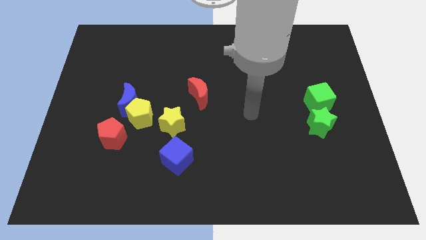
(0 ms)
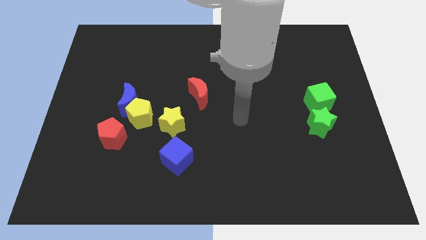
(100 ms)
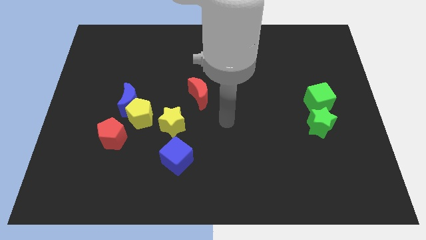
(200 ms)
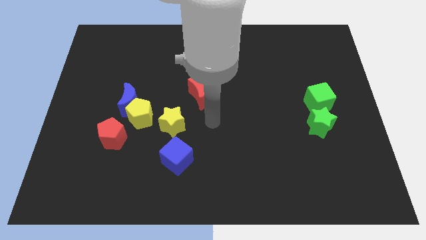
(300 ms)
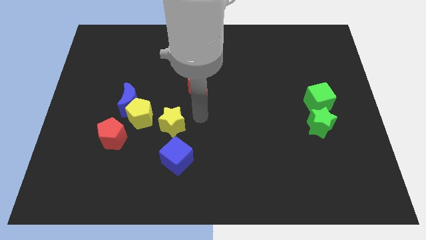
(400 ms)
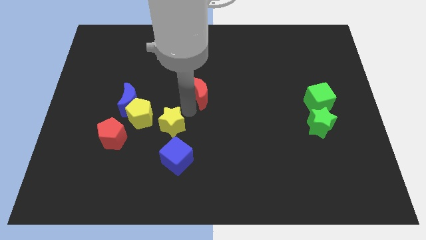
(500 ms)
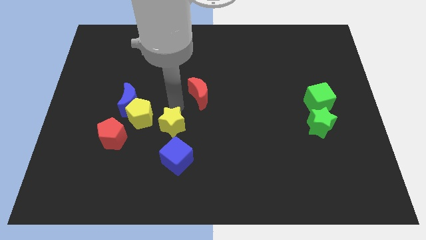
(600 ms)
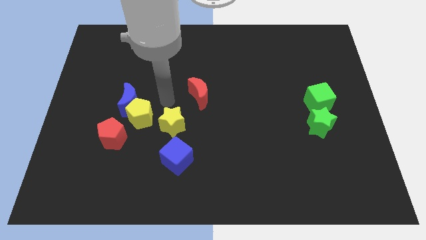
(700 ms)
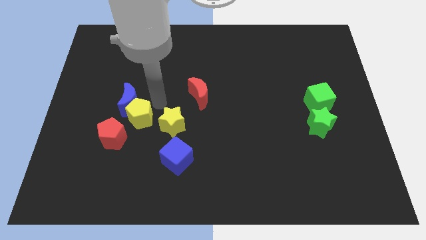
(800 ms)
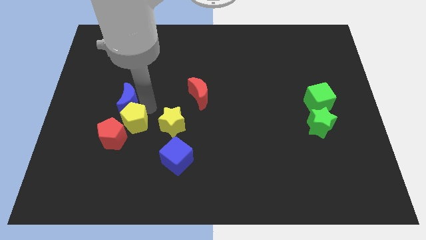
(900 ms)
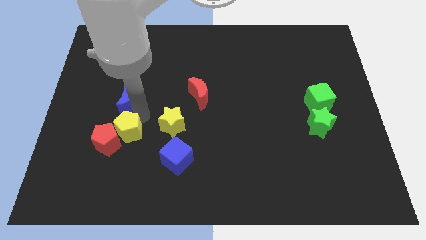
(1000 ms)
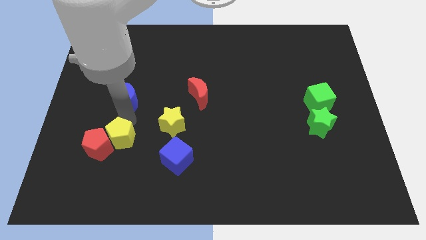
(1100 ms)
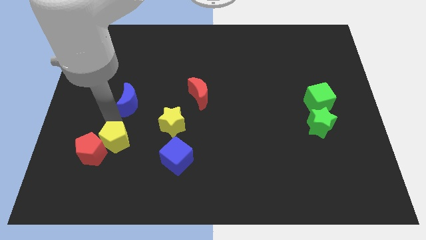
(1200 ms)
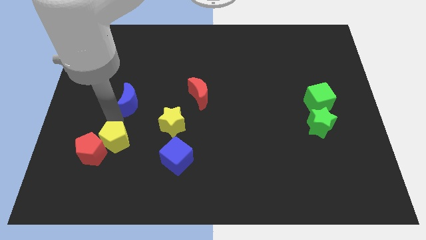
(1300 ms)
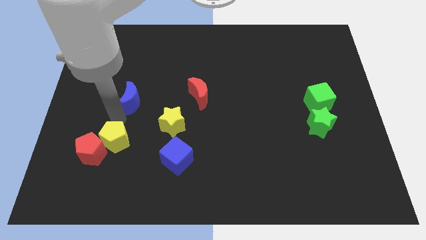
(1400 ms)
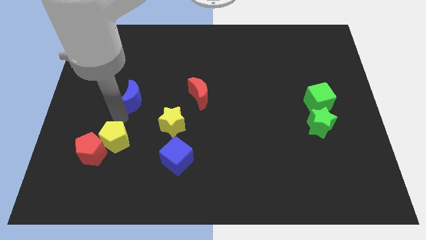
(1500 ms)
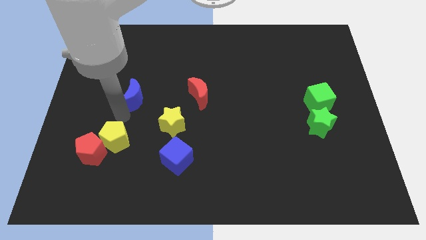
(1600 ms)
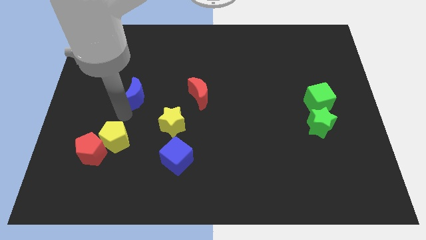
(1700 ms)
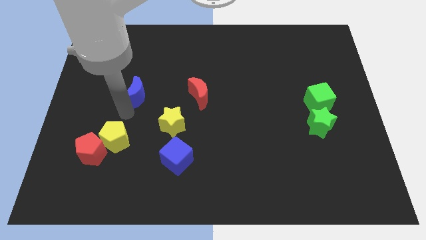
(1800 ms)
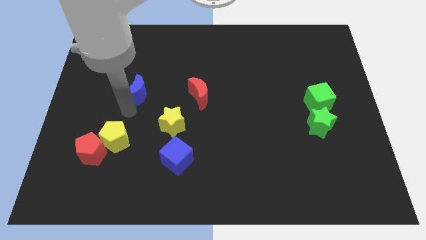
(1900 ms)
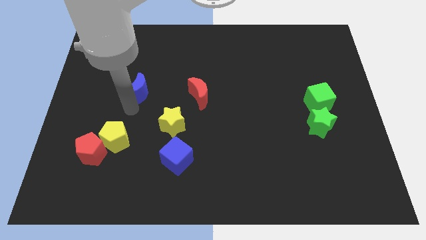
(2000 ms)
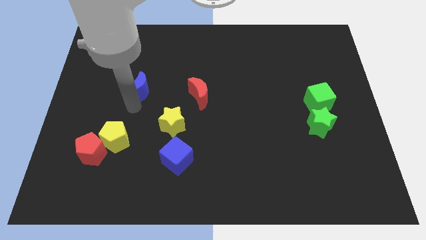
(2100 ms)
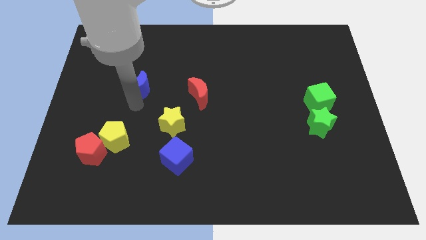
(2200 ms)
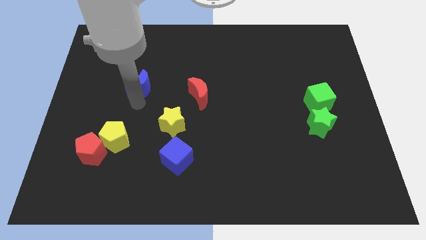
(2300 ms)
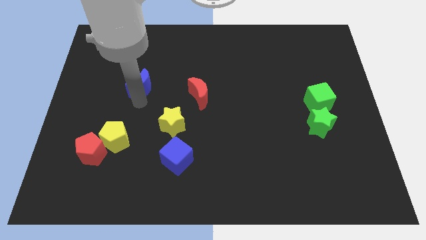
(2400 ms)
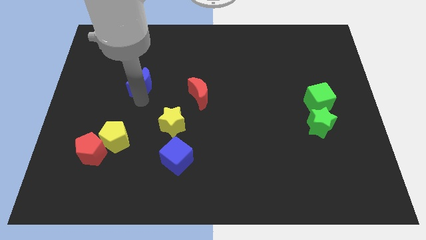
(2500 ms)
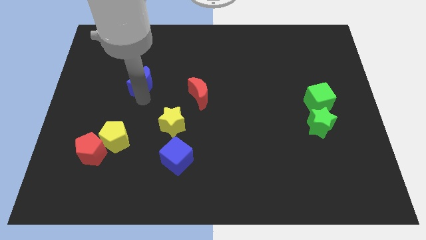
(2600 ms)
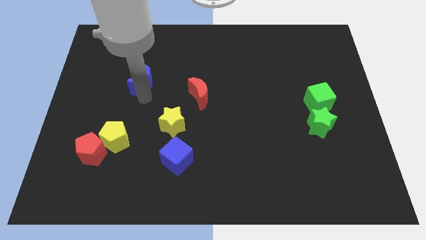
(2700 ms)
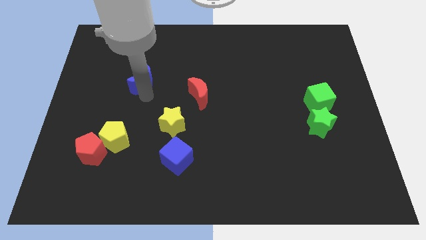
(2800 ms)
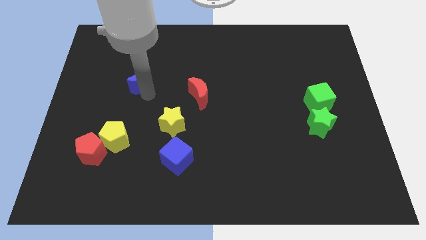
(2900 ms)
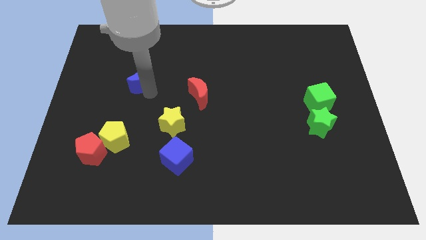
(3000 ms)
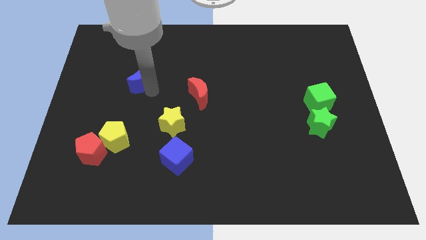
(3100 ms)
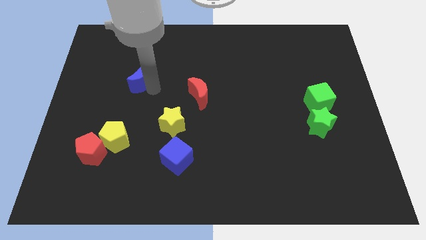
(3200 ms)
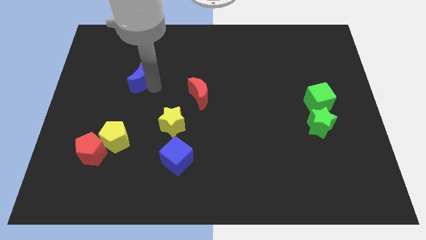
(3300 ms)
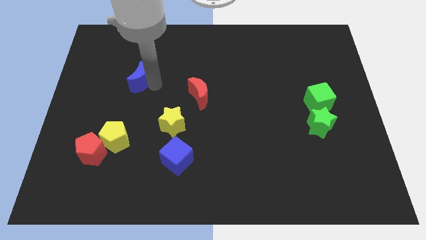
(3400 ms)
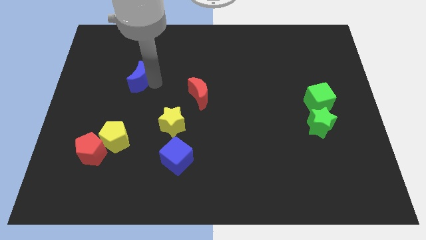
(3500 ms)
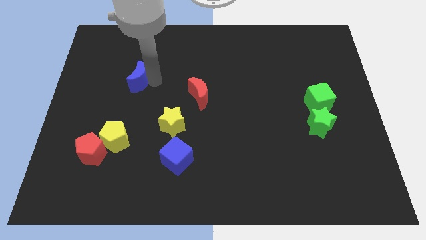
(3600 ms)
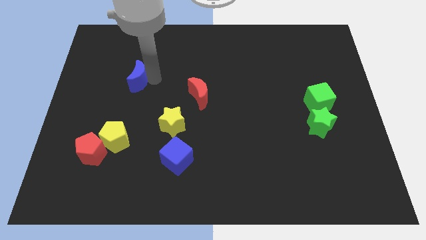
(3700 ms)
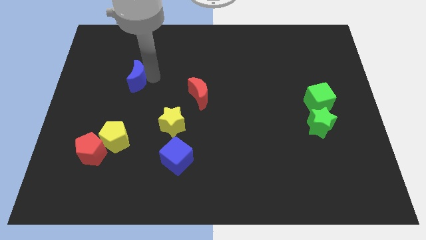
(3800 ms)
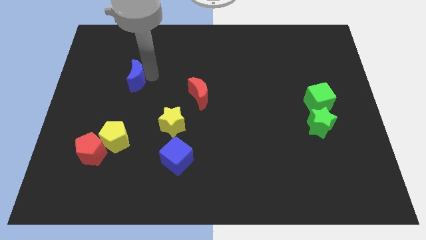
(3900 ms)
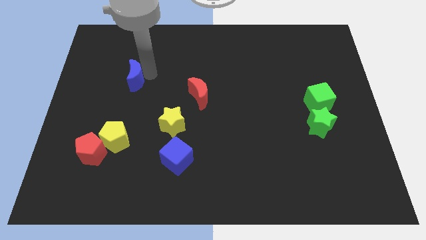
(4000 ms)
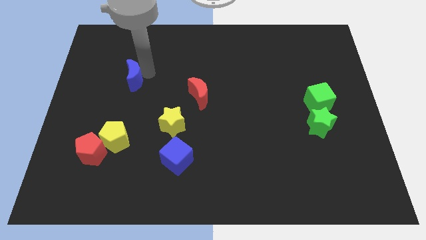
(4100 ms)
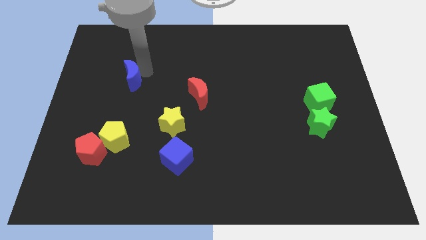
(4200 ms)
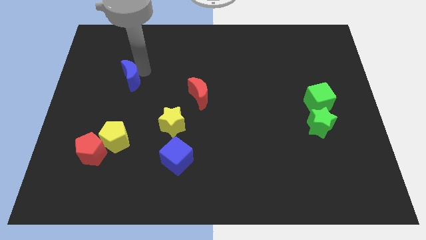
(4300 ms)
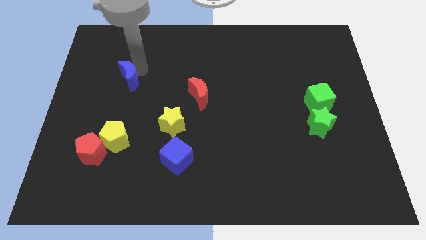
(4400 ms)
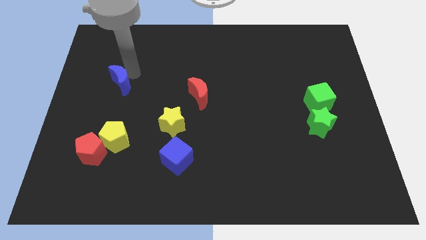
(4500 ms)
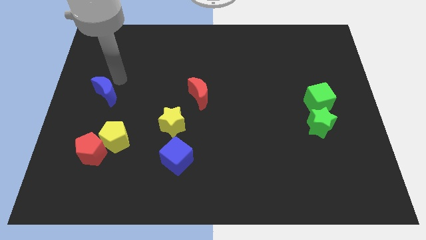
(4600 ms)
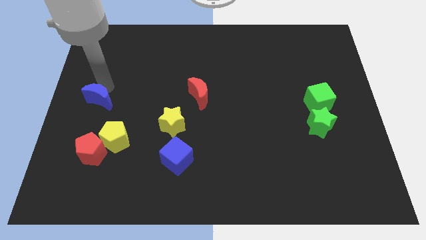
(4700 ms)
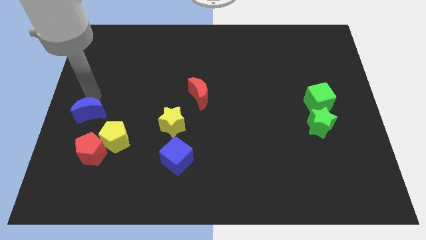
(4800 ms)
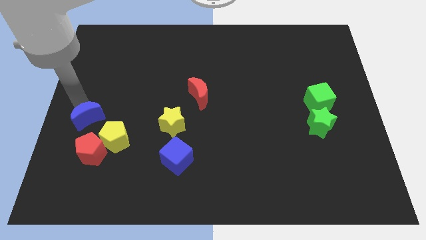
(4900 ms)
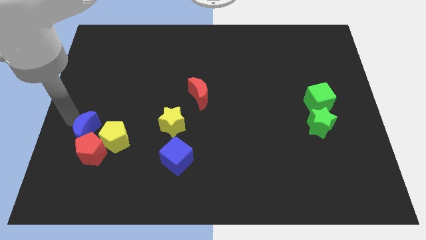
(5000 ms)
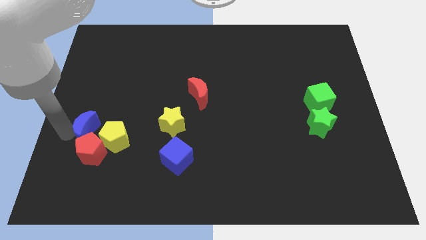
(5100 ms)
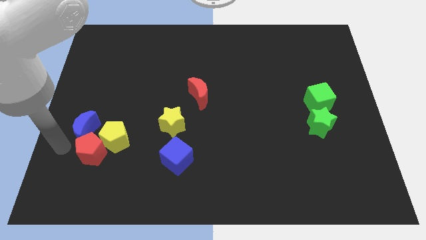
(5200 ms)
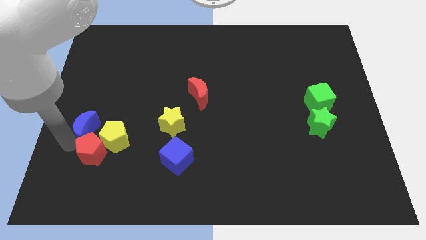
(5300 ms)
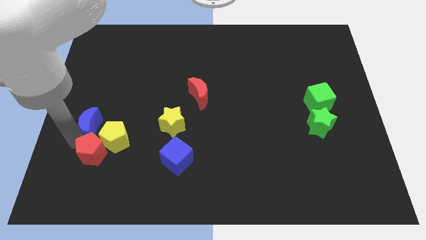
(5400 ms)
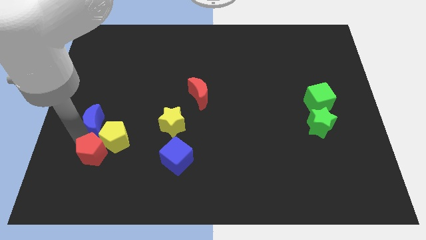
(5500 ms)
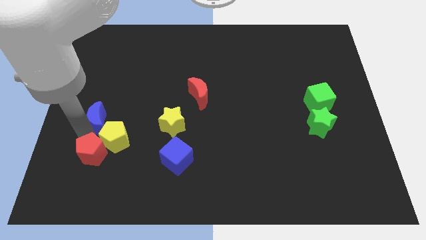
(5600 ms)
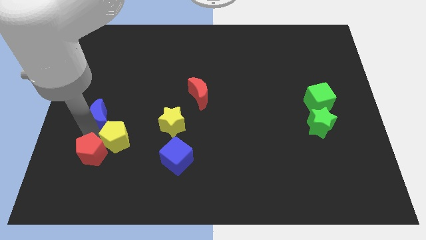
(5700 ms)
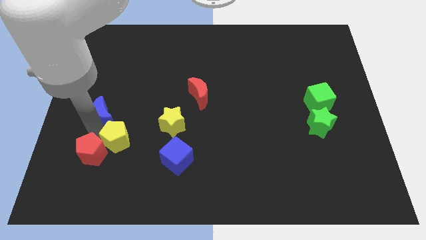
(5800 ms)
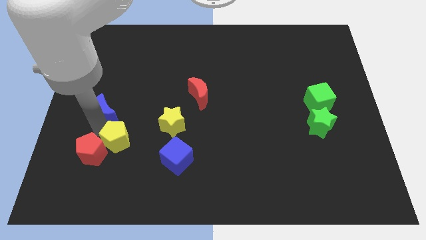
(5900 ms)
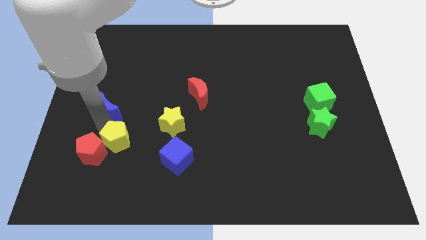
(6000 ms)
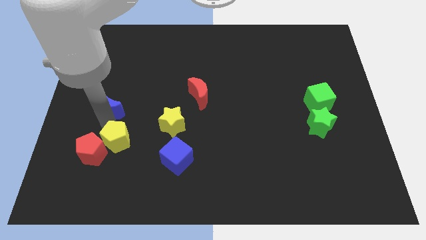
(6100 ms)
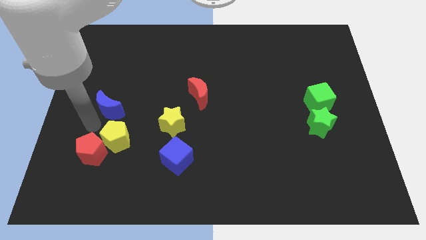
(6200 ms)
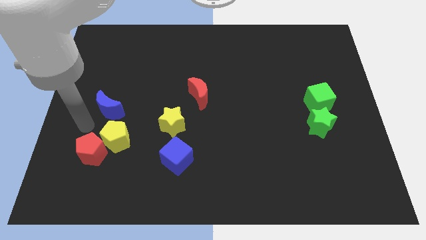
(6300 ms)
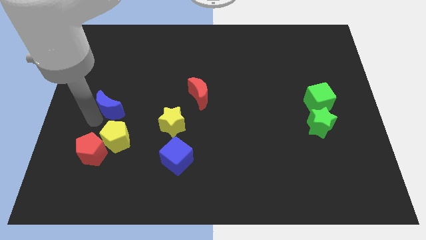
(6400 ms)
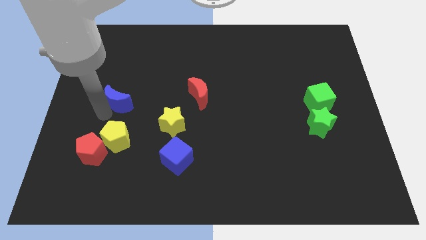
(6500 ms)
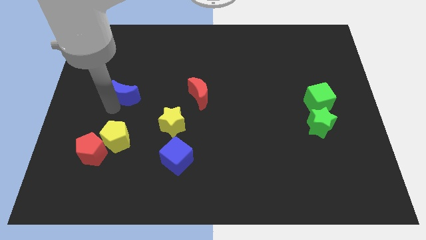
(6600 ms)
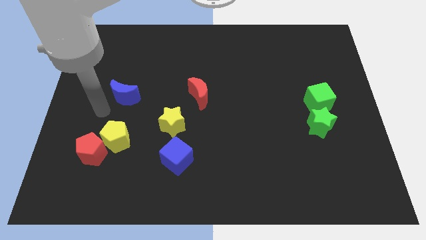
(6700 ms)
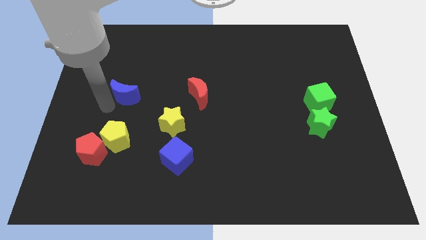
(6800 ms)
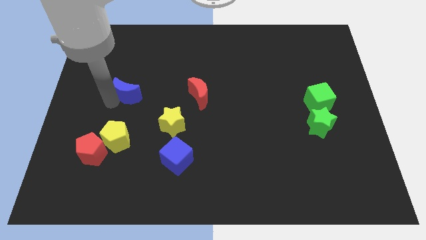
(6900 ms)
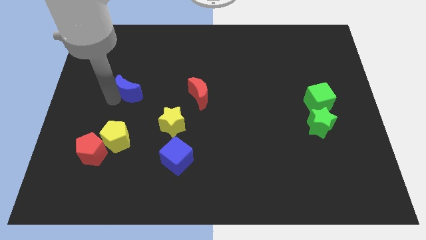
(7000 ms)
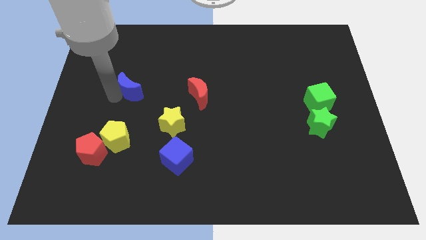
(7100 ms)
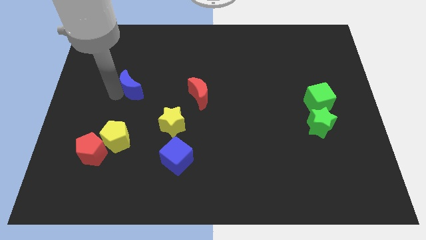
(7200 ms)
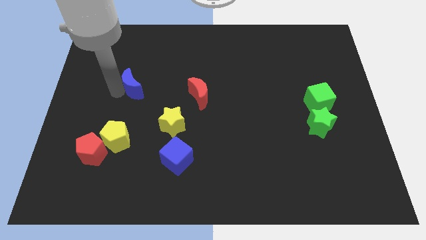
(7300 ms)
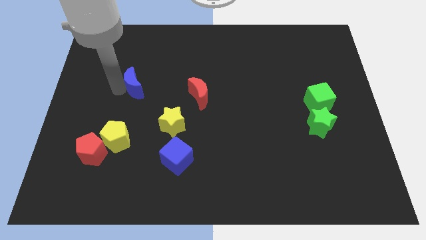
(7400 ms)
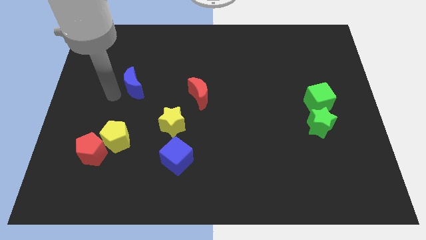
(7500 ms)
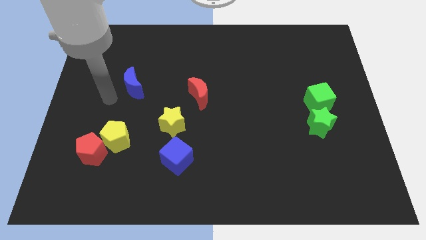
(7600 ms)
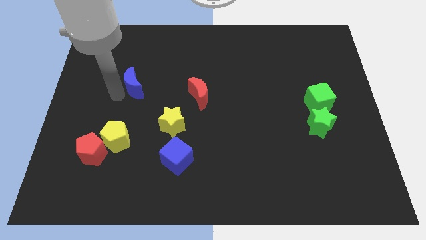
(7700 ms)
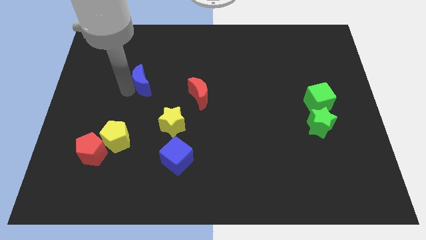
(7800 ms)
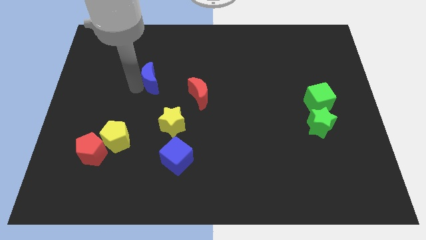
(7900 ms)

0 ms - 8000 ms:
move the blue moon up and to the right diagonally a little bit

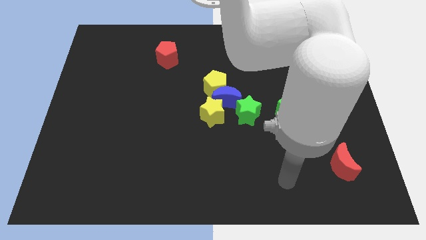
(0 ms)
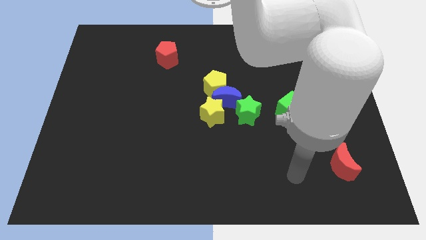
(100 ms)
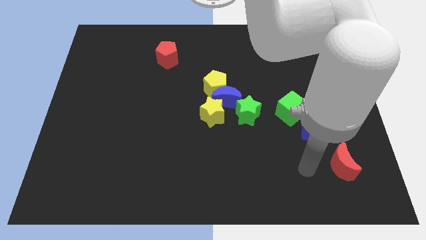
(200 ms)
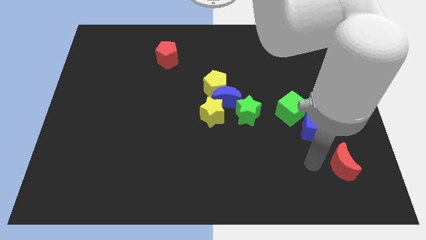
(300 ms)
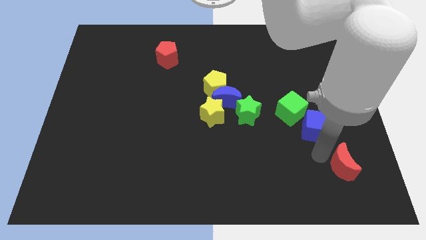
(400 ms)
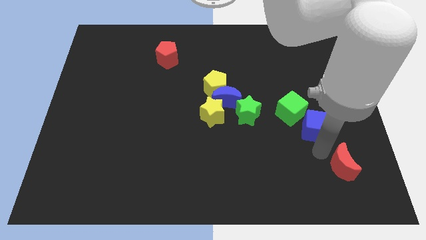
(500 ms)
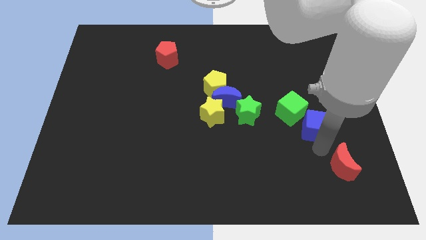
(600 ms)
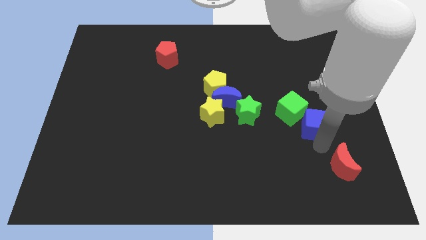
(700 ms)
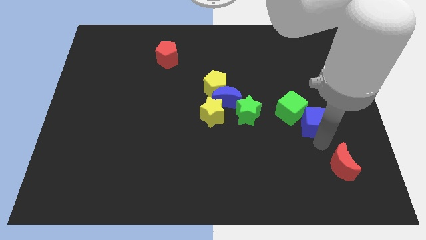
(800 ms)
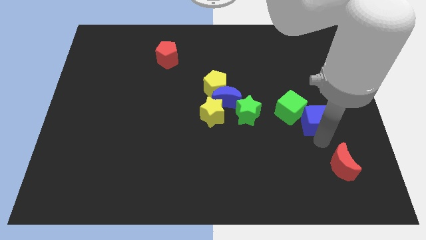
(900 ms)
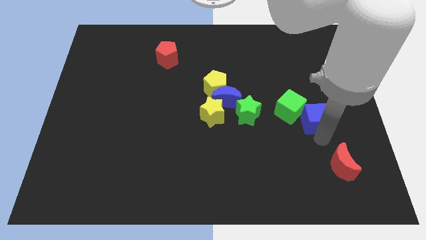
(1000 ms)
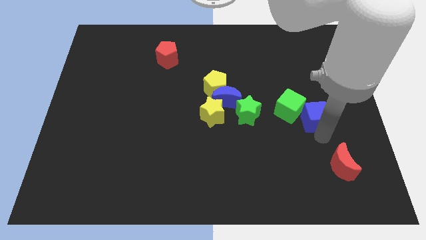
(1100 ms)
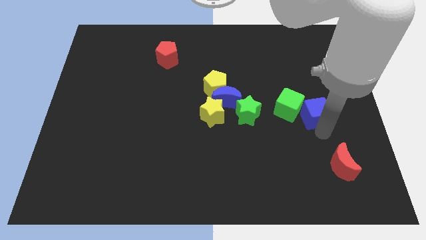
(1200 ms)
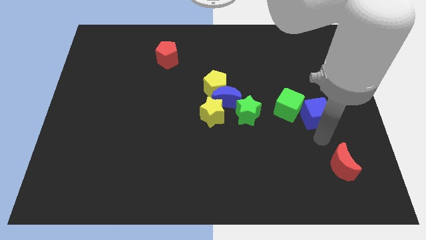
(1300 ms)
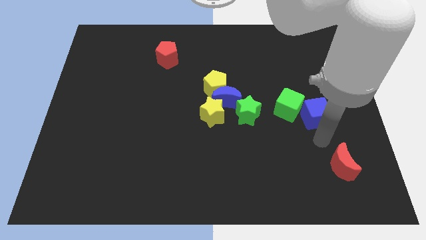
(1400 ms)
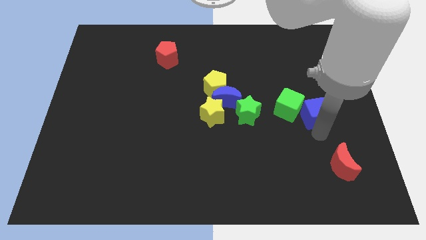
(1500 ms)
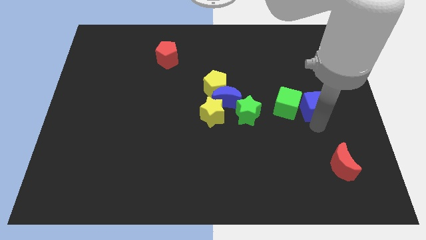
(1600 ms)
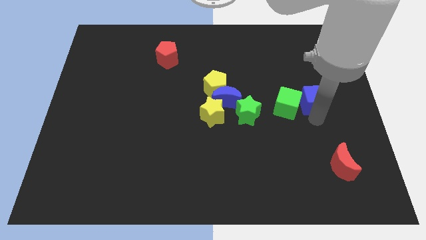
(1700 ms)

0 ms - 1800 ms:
push the blue cube slightly up
